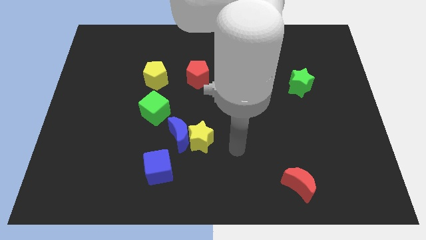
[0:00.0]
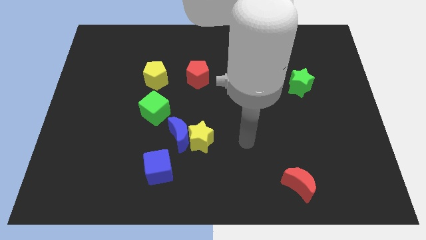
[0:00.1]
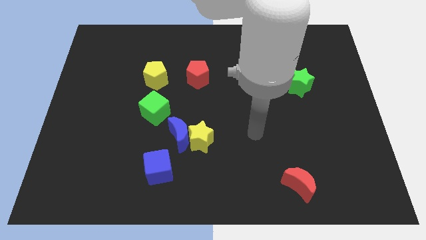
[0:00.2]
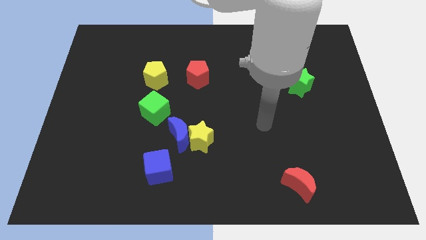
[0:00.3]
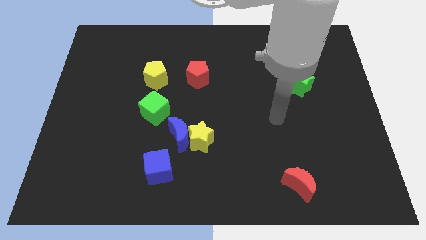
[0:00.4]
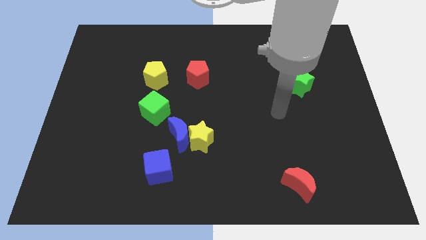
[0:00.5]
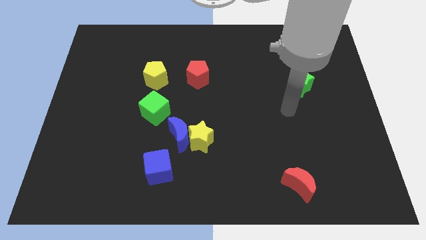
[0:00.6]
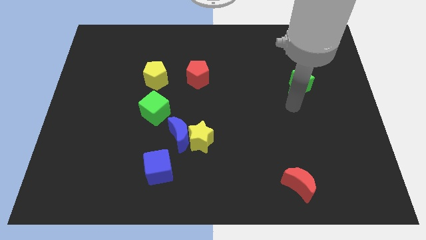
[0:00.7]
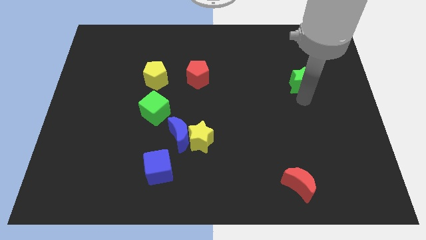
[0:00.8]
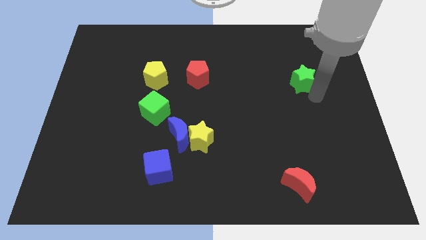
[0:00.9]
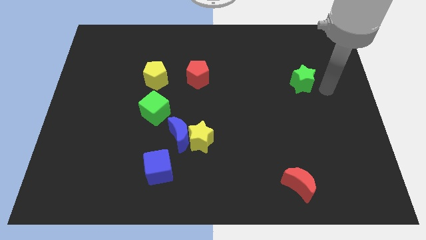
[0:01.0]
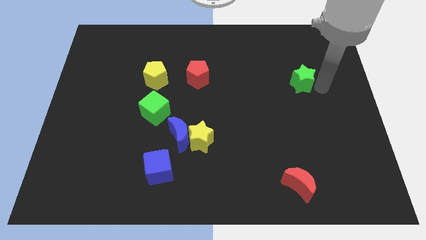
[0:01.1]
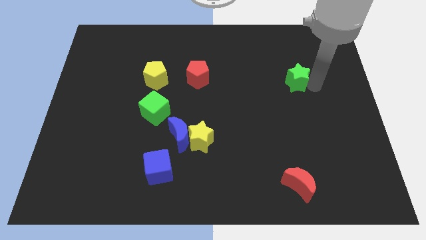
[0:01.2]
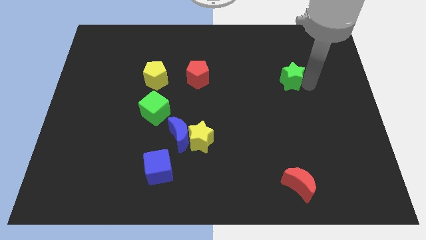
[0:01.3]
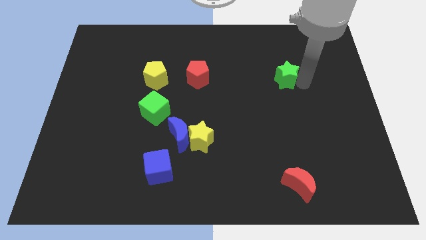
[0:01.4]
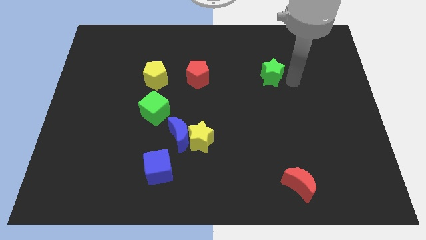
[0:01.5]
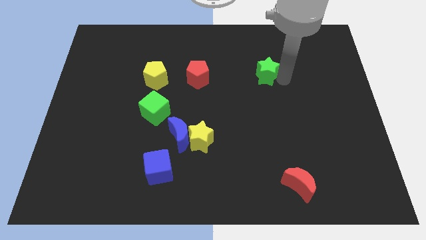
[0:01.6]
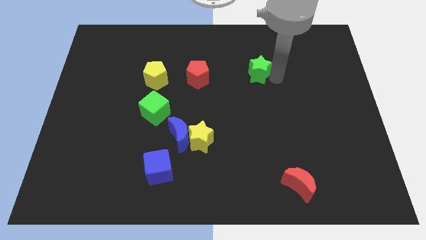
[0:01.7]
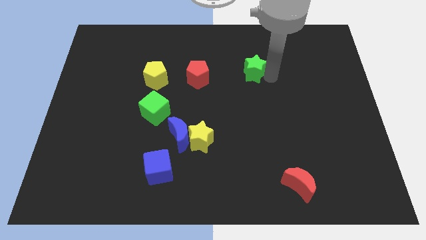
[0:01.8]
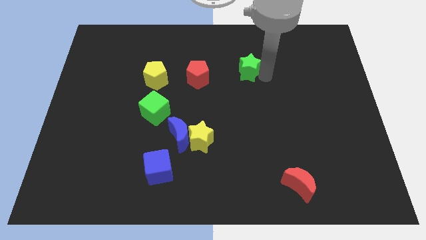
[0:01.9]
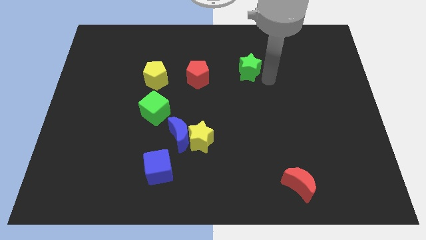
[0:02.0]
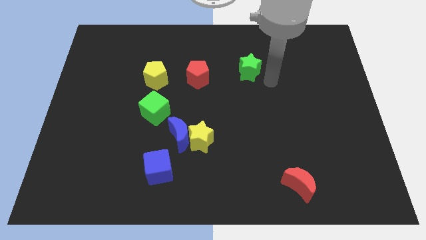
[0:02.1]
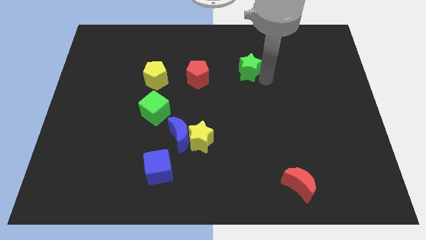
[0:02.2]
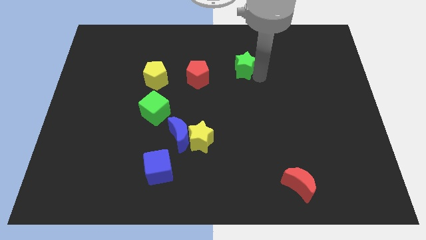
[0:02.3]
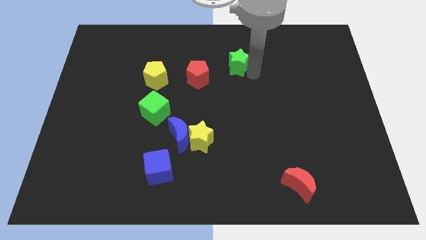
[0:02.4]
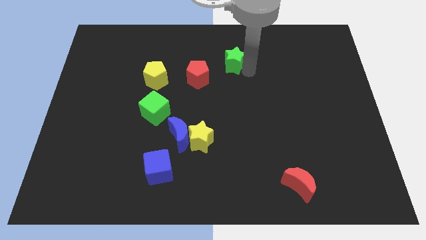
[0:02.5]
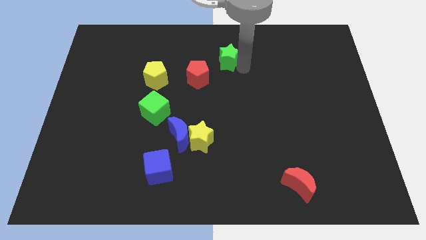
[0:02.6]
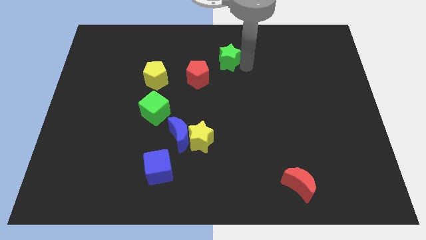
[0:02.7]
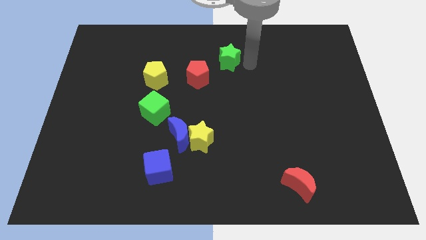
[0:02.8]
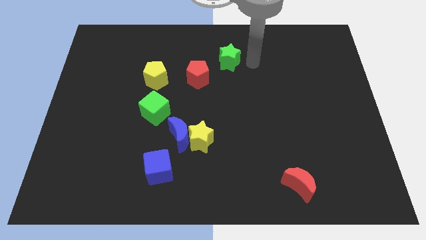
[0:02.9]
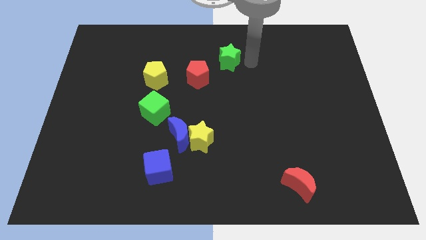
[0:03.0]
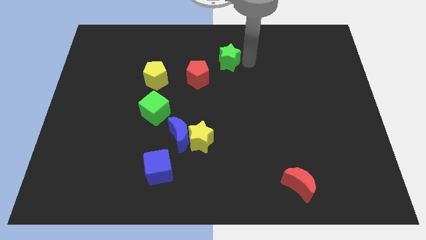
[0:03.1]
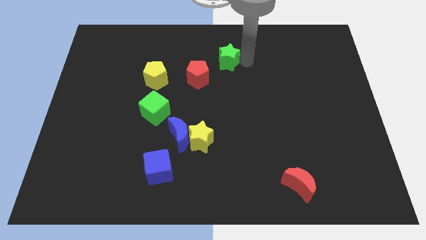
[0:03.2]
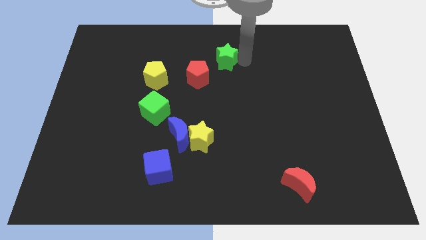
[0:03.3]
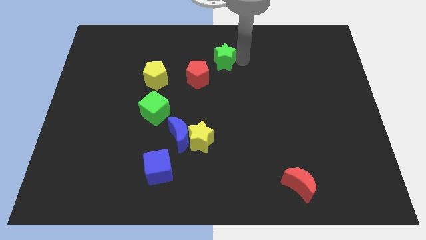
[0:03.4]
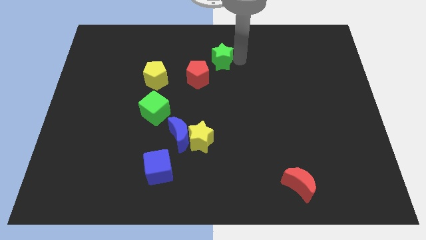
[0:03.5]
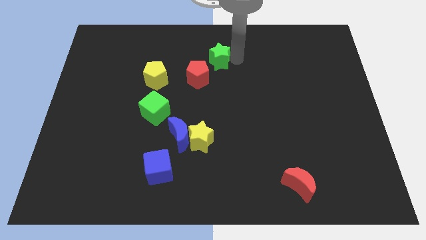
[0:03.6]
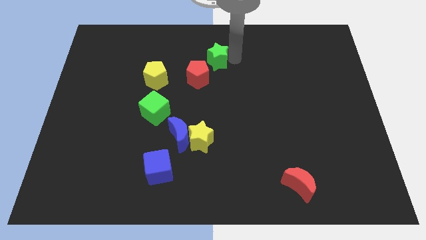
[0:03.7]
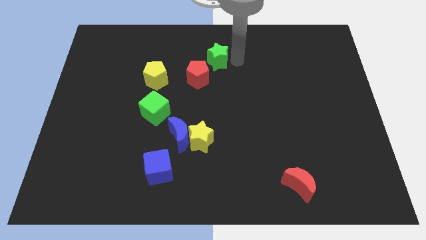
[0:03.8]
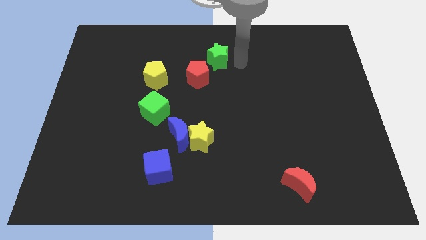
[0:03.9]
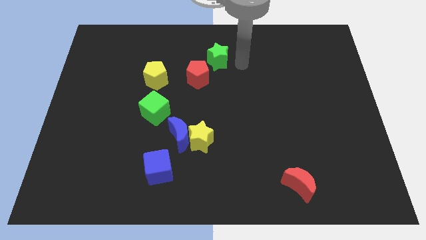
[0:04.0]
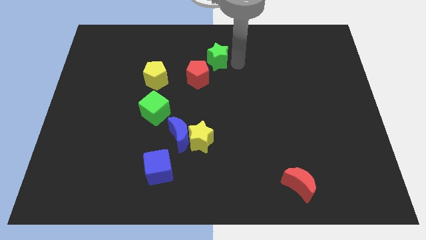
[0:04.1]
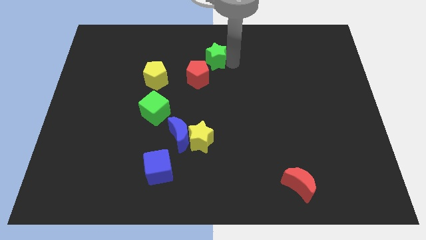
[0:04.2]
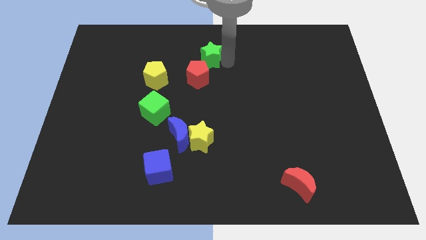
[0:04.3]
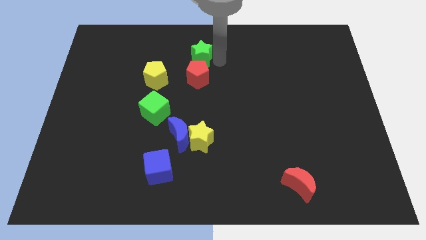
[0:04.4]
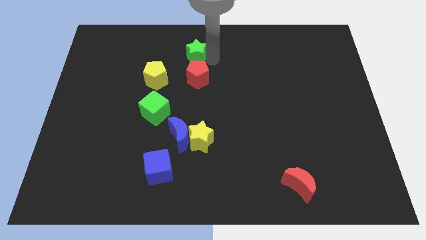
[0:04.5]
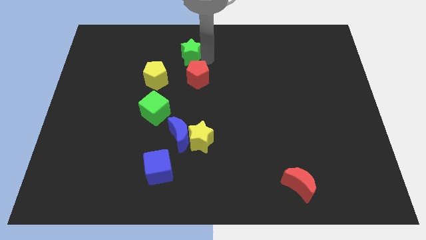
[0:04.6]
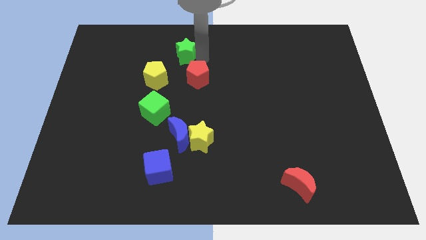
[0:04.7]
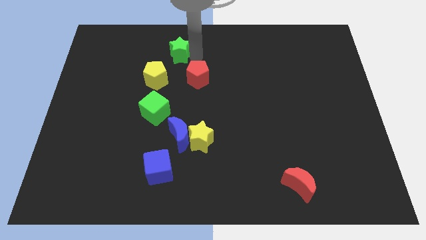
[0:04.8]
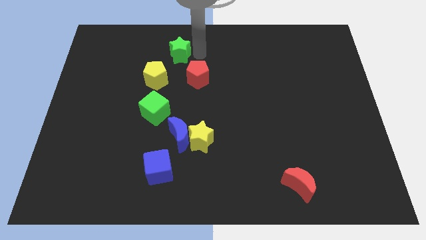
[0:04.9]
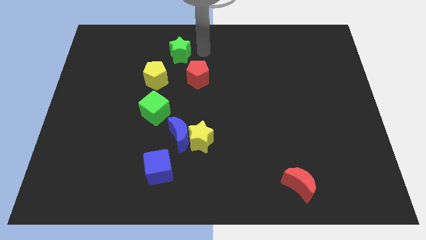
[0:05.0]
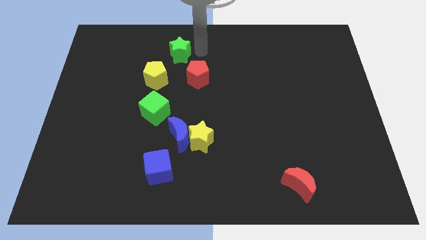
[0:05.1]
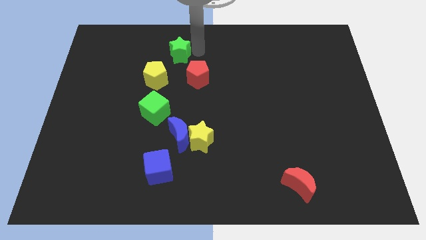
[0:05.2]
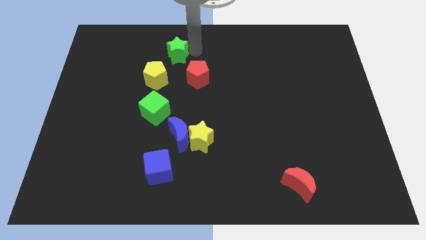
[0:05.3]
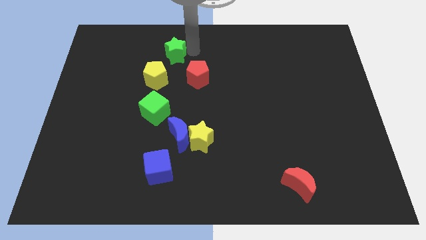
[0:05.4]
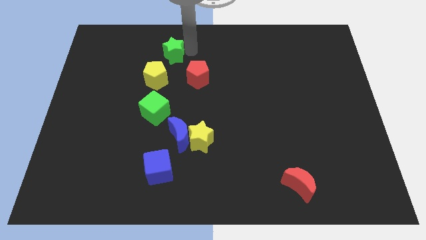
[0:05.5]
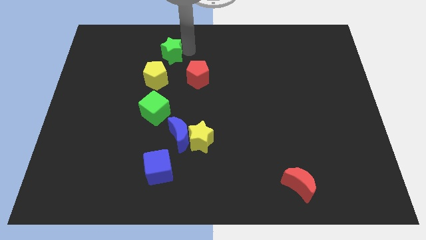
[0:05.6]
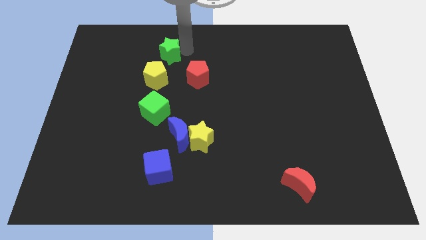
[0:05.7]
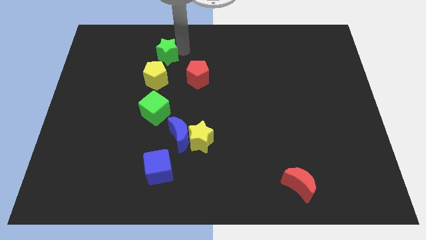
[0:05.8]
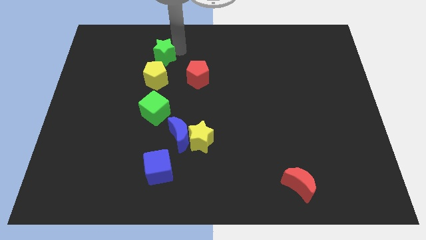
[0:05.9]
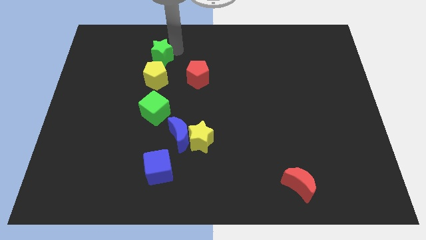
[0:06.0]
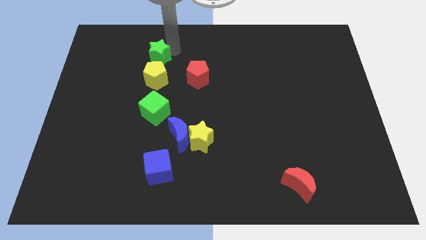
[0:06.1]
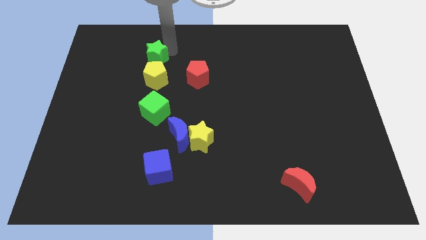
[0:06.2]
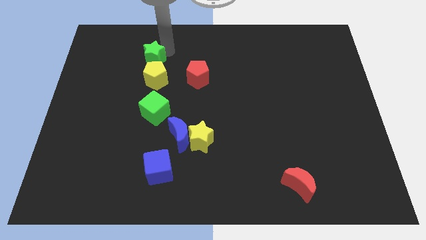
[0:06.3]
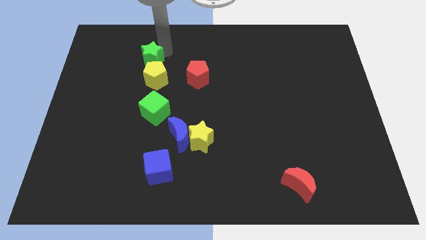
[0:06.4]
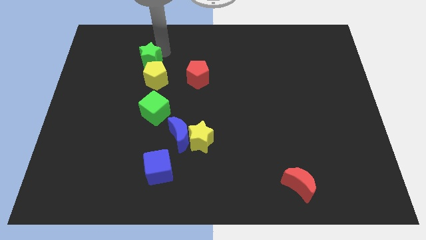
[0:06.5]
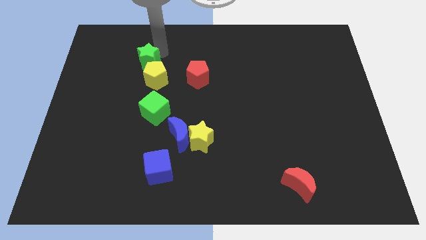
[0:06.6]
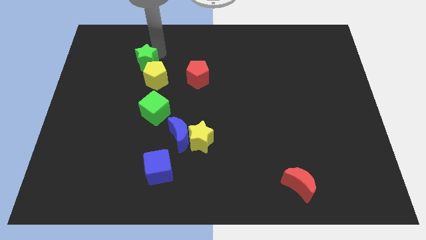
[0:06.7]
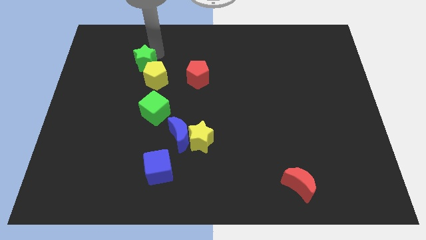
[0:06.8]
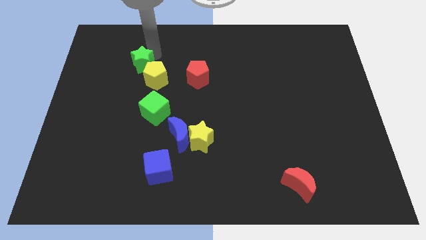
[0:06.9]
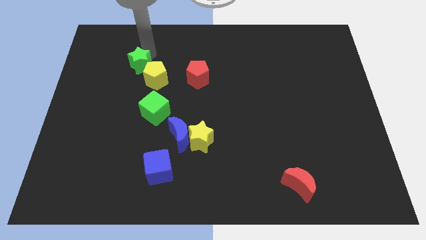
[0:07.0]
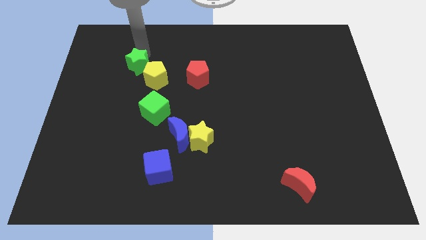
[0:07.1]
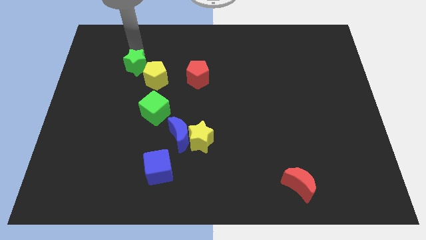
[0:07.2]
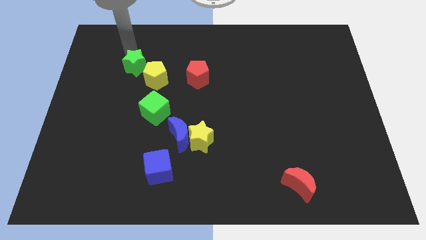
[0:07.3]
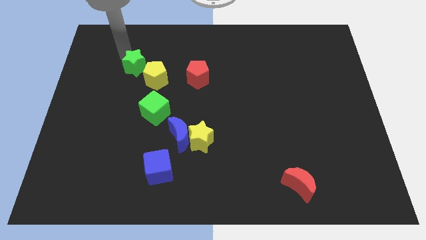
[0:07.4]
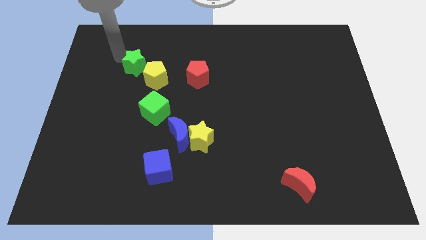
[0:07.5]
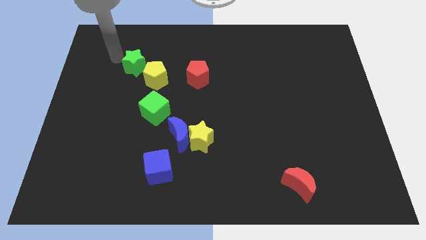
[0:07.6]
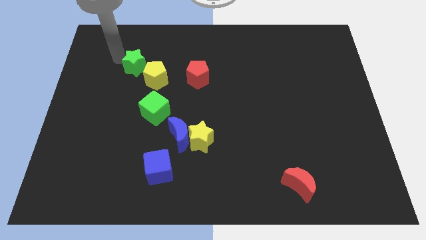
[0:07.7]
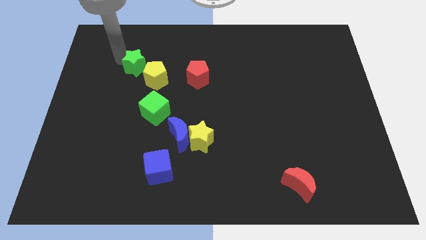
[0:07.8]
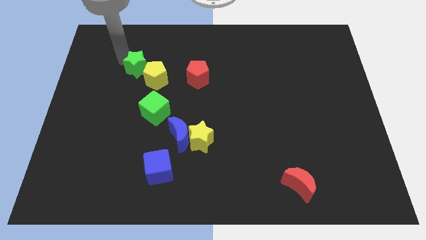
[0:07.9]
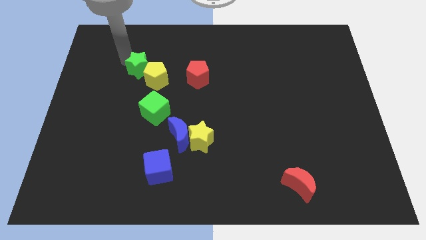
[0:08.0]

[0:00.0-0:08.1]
push the green star just left of the red pentagon
